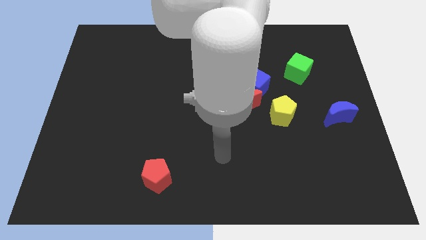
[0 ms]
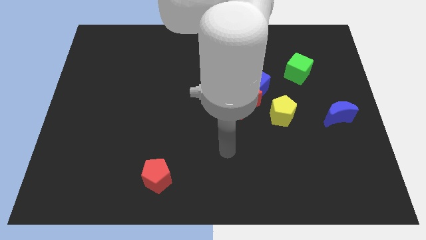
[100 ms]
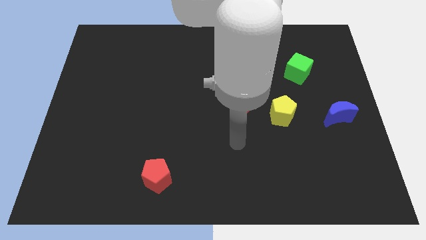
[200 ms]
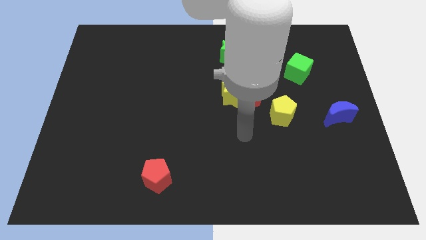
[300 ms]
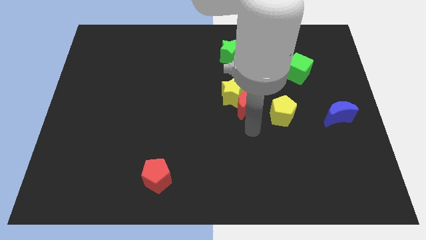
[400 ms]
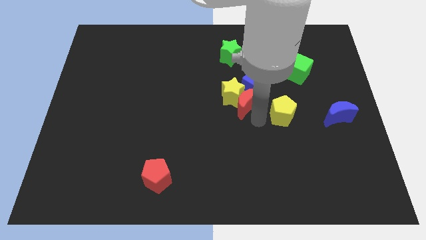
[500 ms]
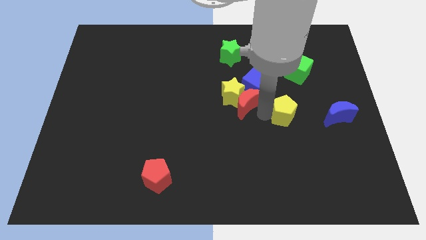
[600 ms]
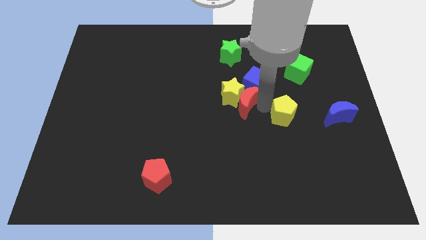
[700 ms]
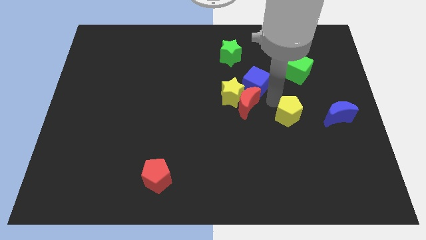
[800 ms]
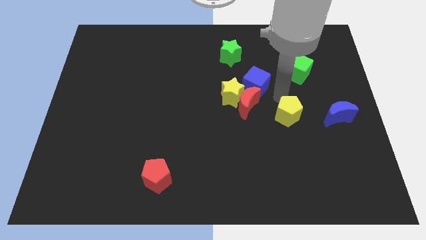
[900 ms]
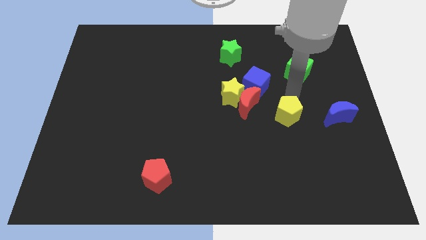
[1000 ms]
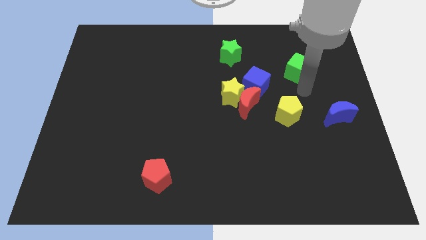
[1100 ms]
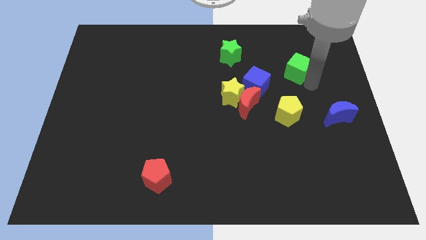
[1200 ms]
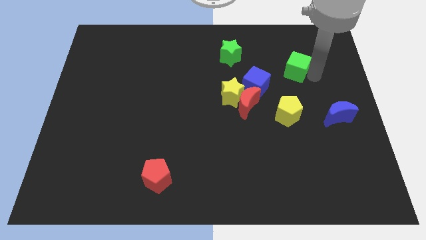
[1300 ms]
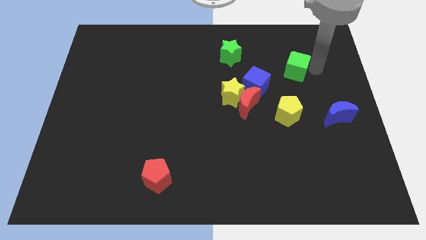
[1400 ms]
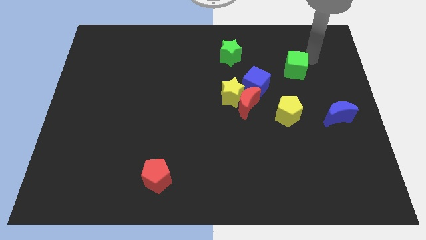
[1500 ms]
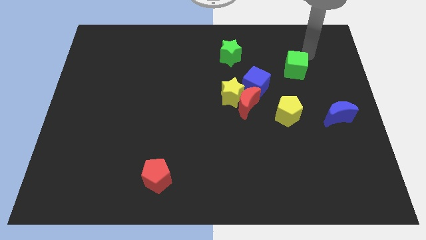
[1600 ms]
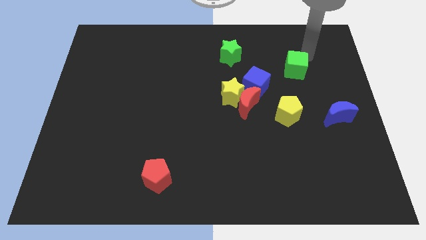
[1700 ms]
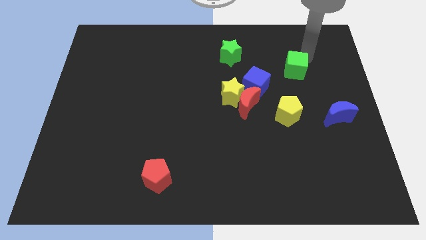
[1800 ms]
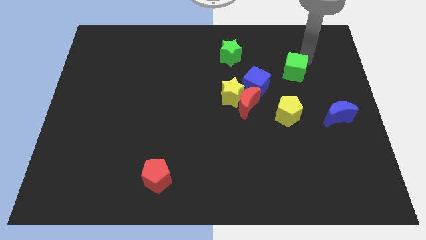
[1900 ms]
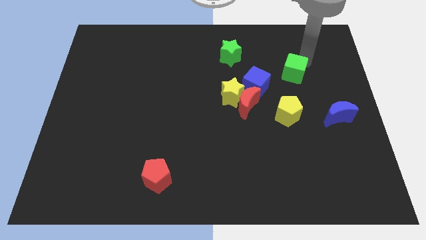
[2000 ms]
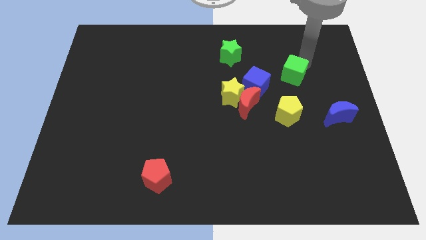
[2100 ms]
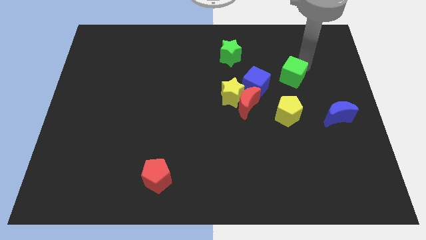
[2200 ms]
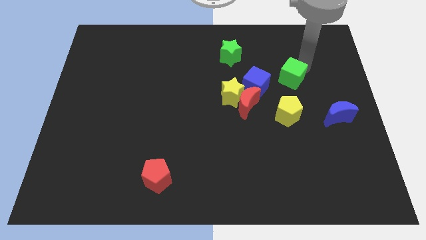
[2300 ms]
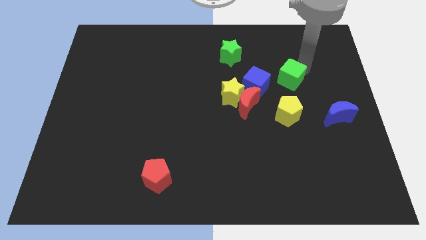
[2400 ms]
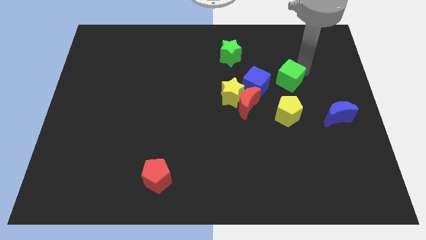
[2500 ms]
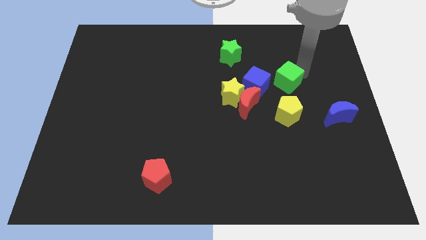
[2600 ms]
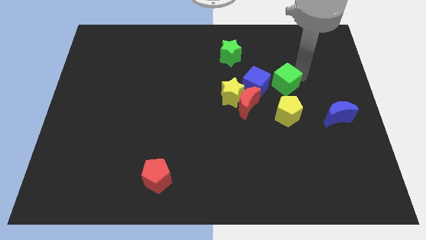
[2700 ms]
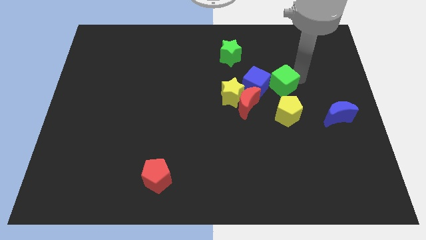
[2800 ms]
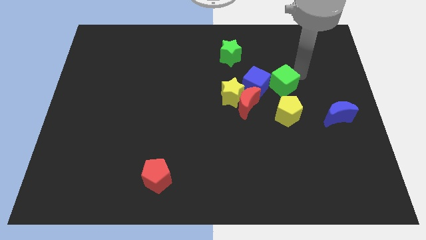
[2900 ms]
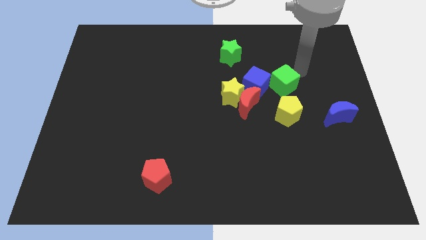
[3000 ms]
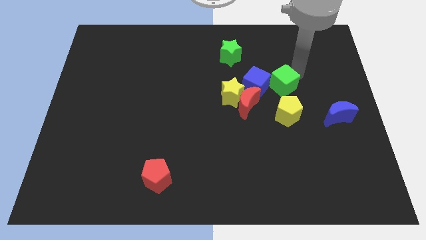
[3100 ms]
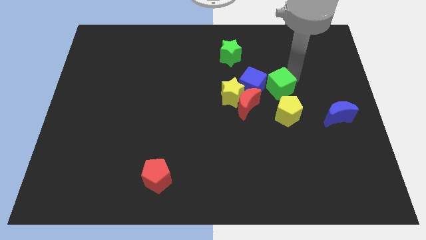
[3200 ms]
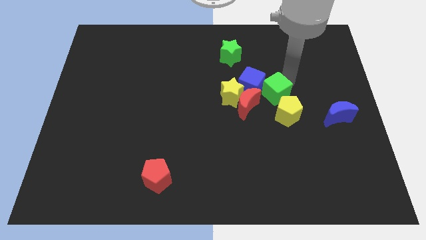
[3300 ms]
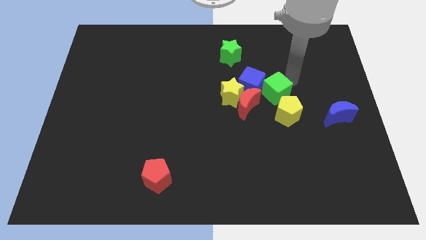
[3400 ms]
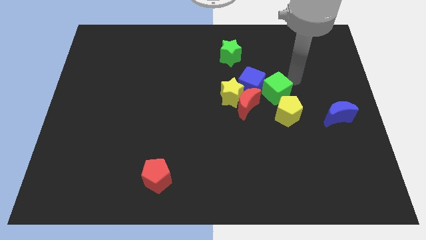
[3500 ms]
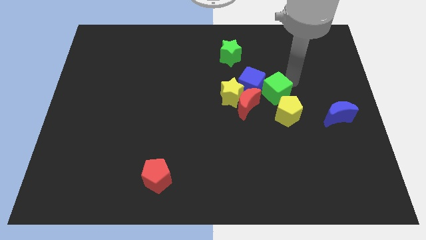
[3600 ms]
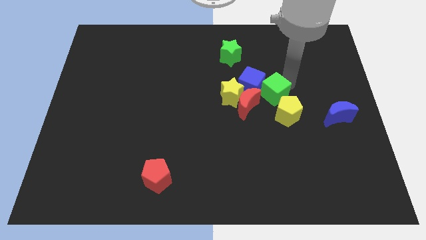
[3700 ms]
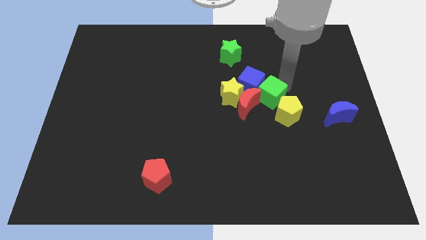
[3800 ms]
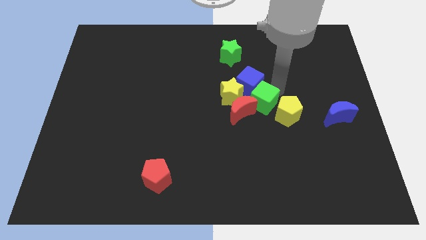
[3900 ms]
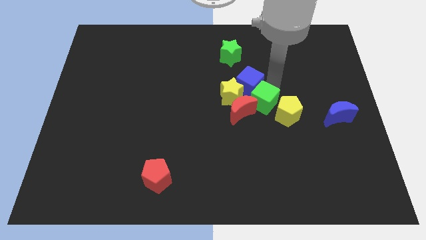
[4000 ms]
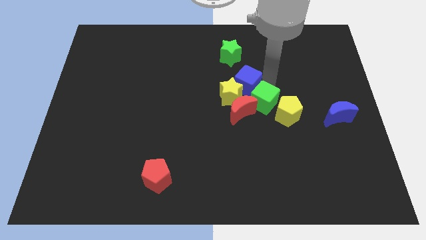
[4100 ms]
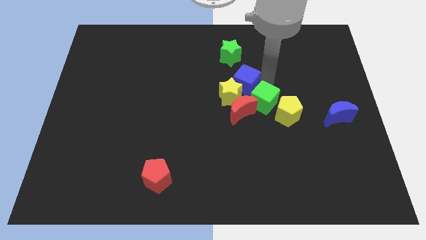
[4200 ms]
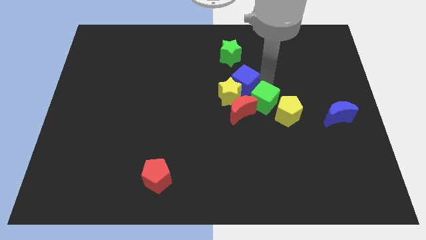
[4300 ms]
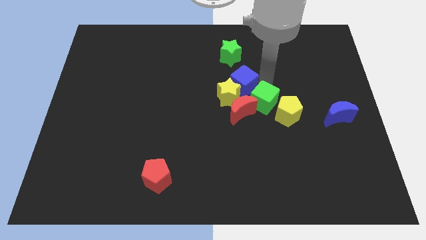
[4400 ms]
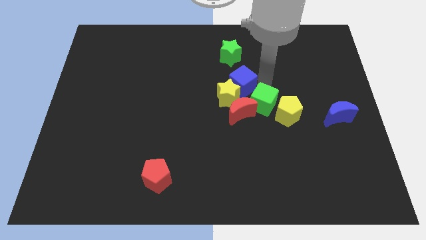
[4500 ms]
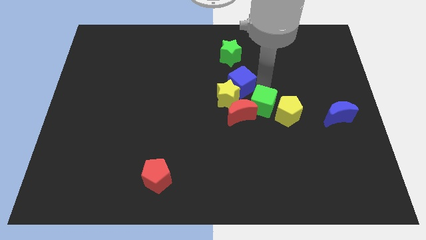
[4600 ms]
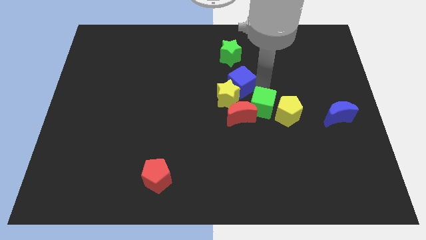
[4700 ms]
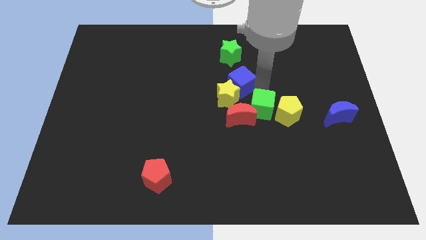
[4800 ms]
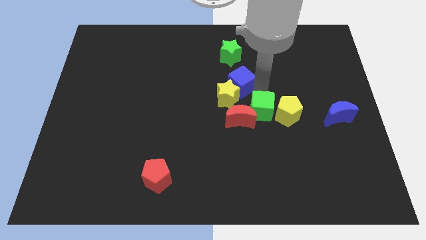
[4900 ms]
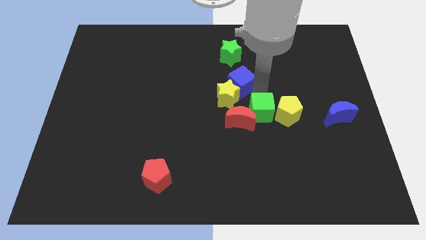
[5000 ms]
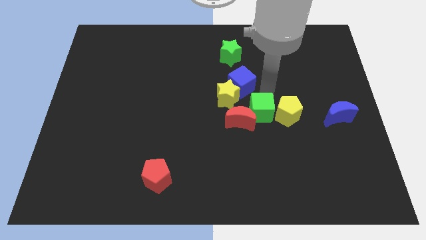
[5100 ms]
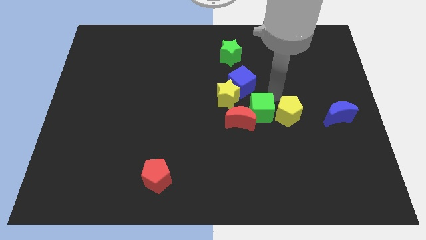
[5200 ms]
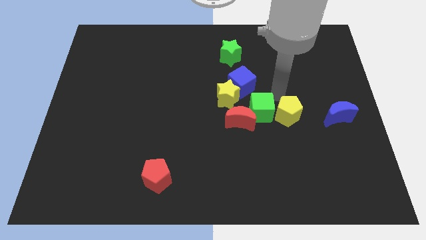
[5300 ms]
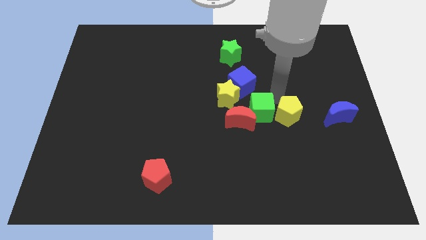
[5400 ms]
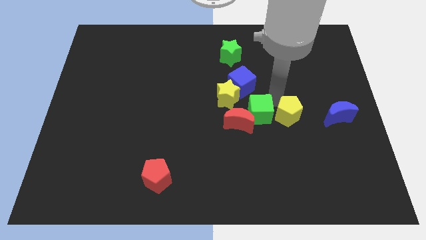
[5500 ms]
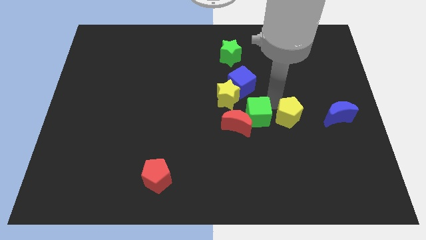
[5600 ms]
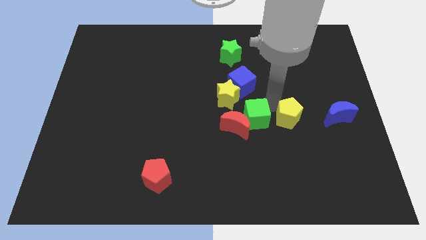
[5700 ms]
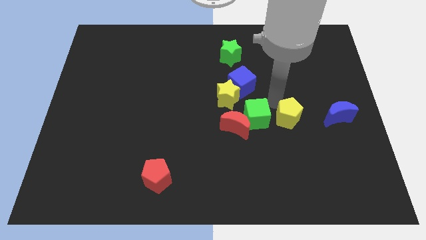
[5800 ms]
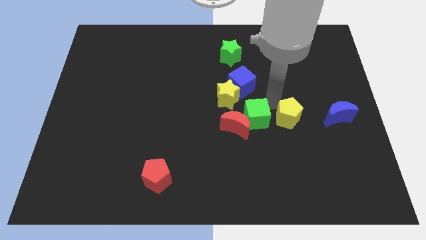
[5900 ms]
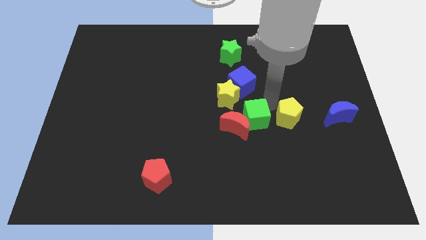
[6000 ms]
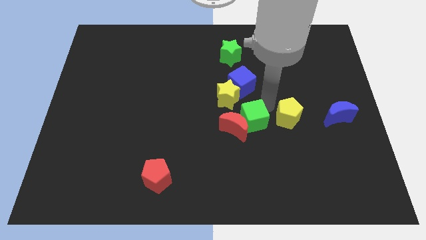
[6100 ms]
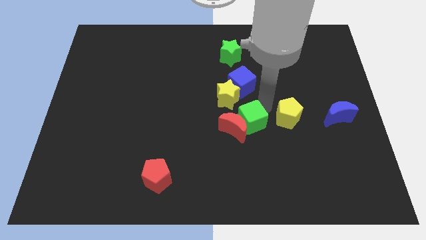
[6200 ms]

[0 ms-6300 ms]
move the green cube downwards and to the left diagonally

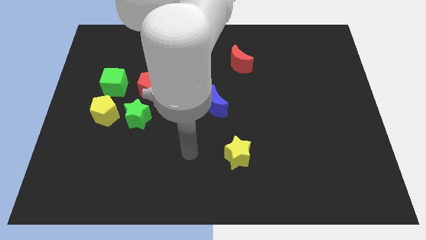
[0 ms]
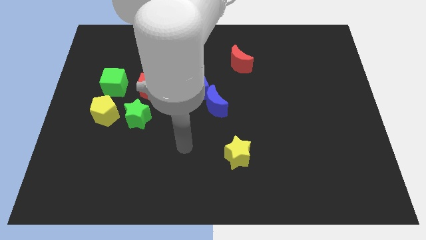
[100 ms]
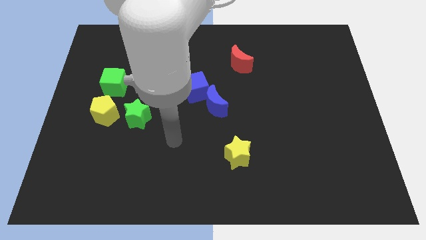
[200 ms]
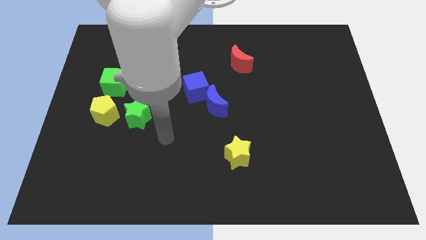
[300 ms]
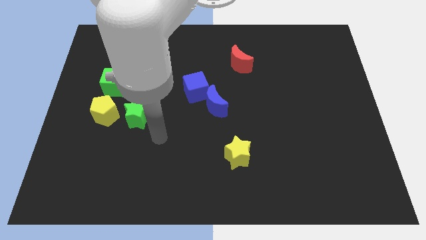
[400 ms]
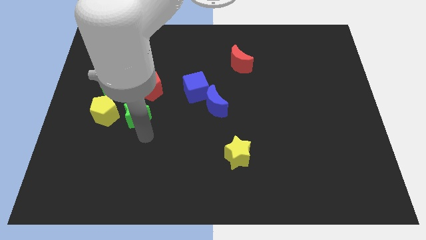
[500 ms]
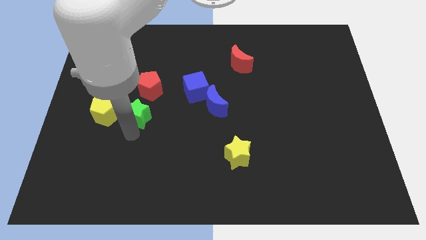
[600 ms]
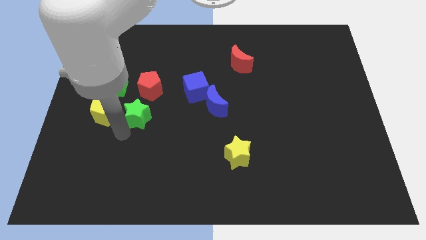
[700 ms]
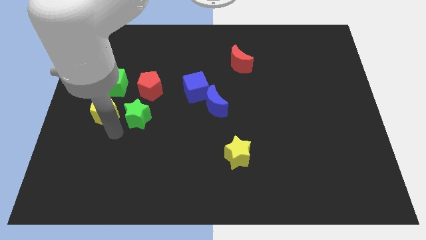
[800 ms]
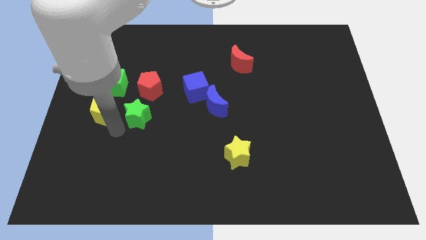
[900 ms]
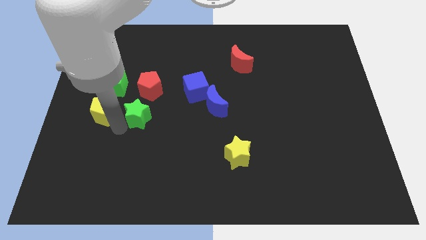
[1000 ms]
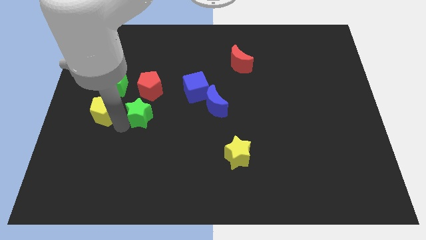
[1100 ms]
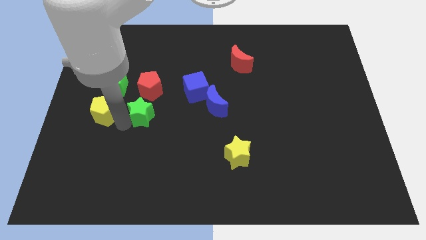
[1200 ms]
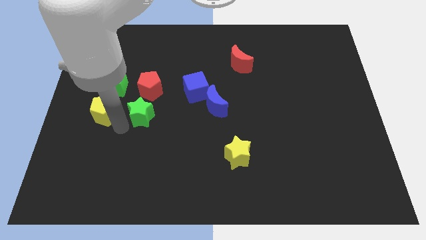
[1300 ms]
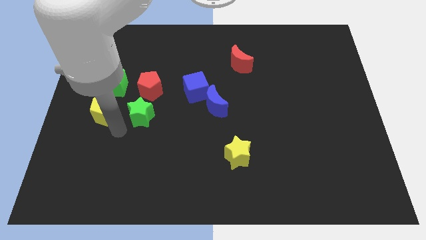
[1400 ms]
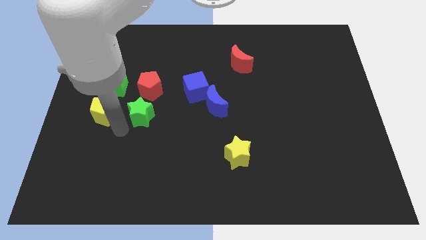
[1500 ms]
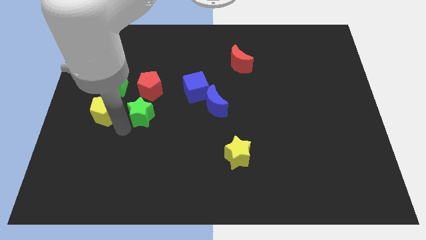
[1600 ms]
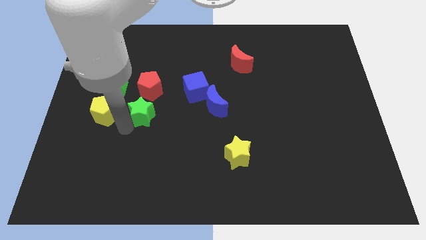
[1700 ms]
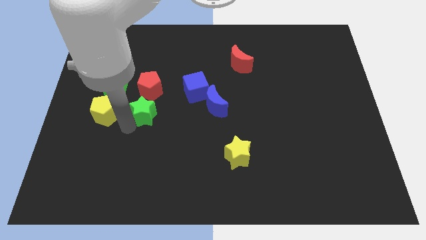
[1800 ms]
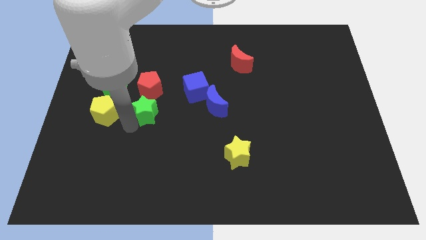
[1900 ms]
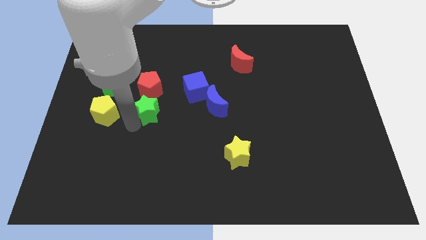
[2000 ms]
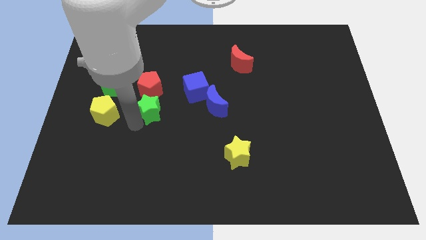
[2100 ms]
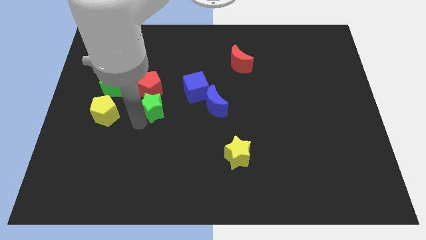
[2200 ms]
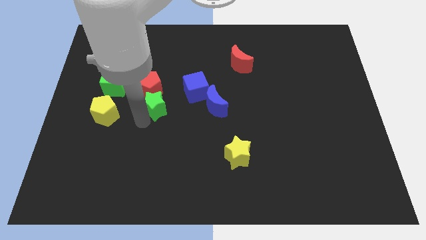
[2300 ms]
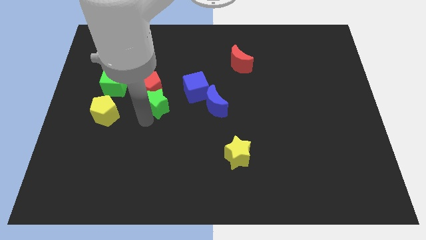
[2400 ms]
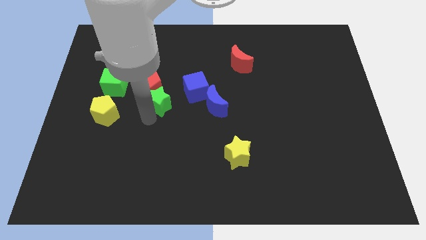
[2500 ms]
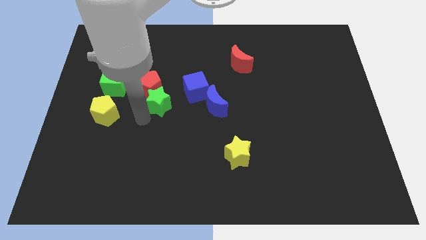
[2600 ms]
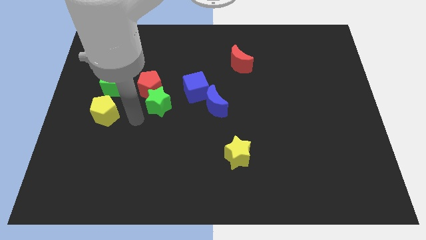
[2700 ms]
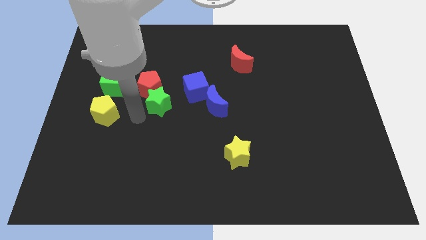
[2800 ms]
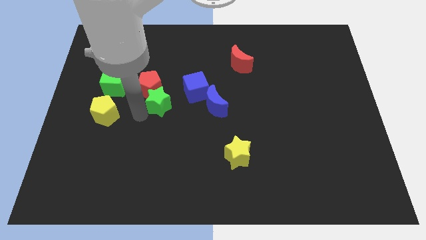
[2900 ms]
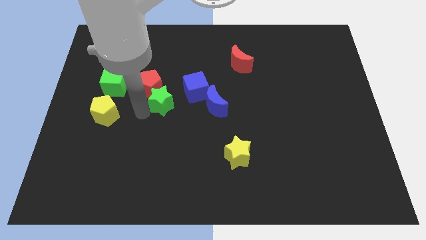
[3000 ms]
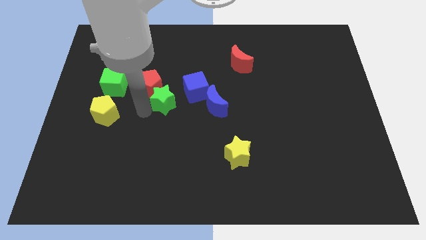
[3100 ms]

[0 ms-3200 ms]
push the green star a little bit up and right diagonally
